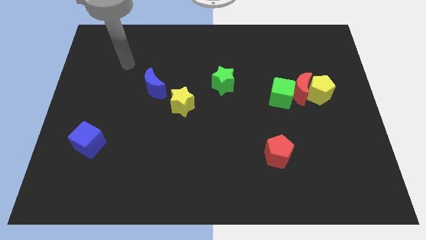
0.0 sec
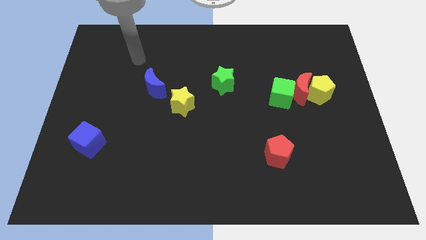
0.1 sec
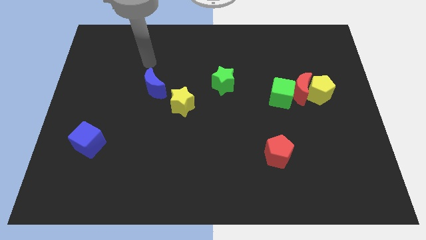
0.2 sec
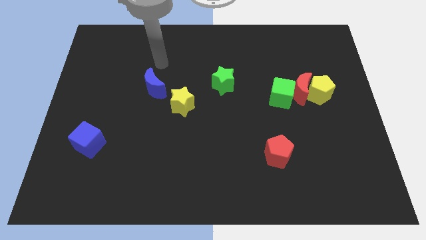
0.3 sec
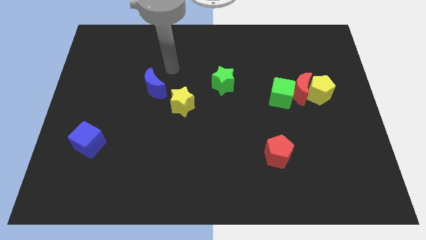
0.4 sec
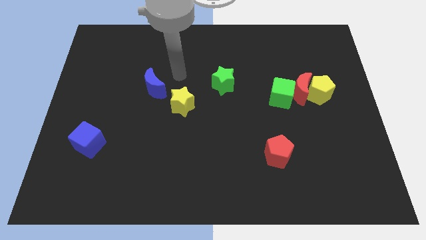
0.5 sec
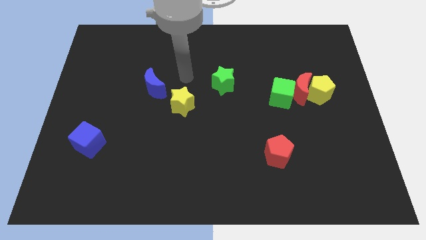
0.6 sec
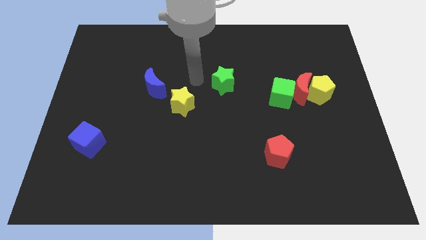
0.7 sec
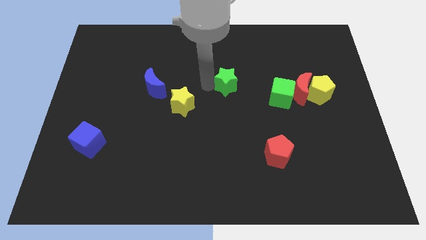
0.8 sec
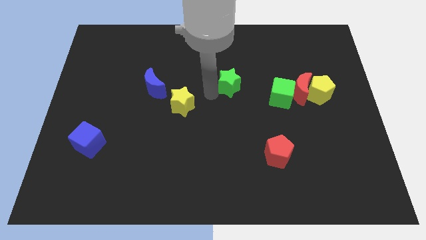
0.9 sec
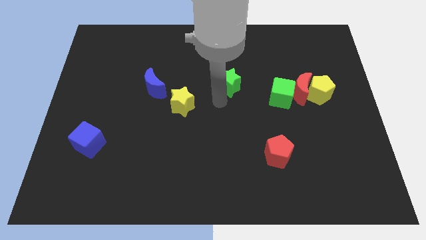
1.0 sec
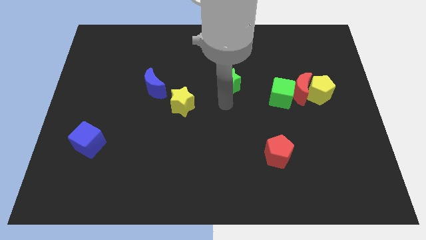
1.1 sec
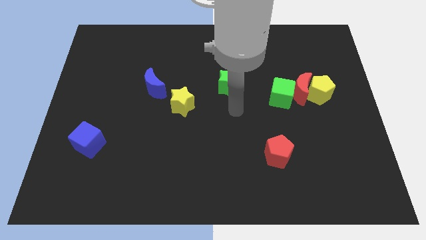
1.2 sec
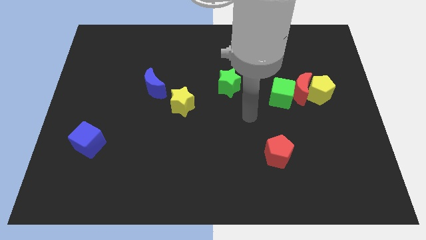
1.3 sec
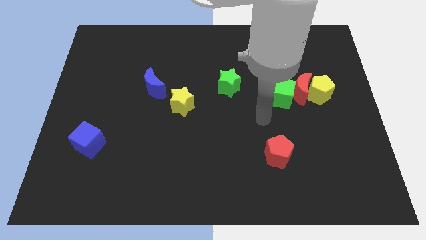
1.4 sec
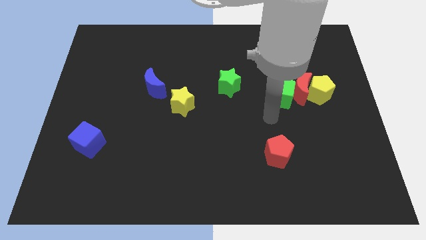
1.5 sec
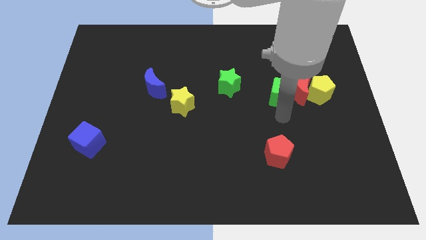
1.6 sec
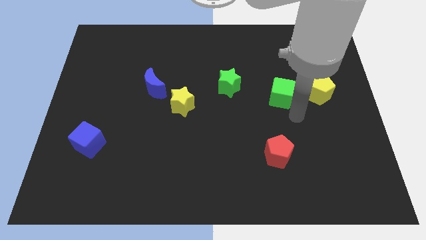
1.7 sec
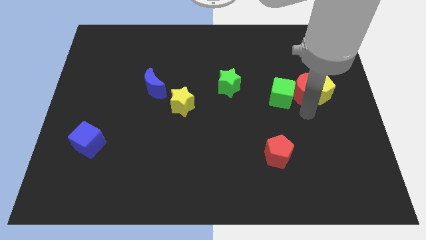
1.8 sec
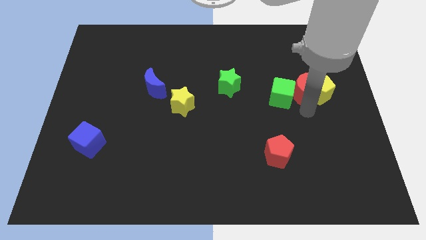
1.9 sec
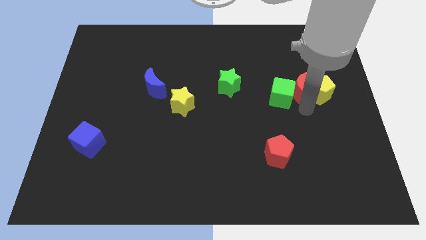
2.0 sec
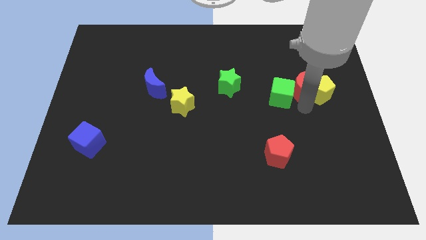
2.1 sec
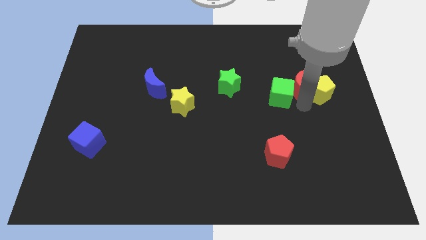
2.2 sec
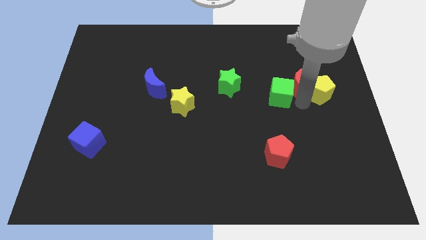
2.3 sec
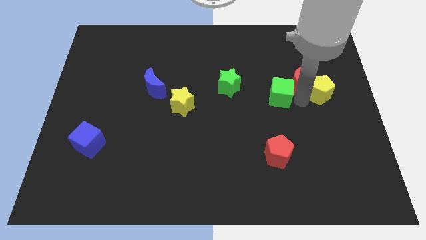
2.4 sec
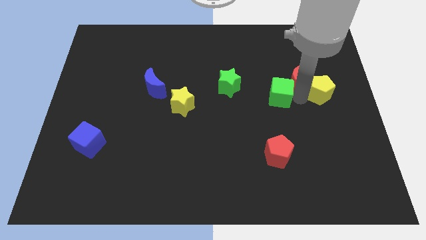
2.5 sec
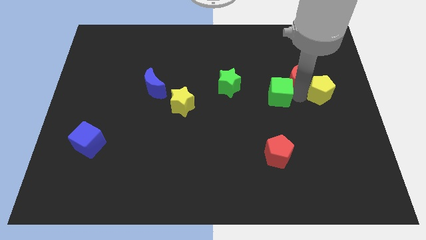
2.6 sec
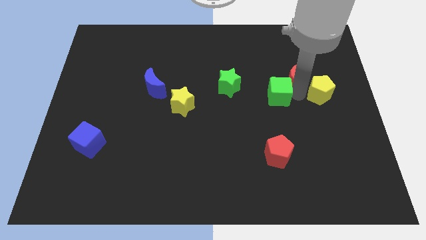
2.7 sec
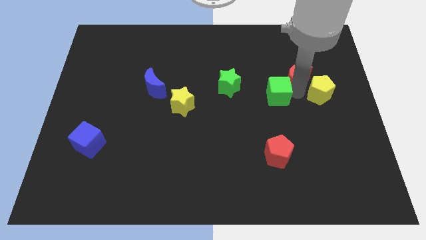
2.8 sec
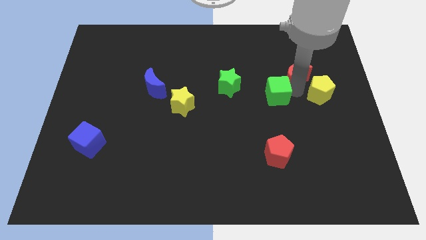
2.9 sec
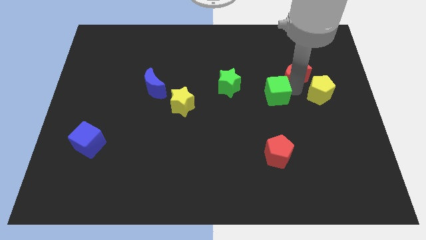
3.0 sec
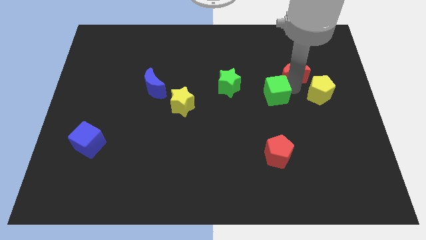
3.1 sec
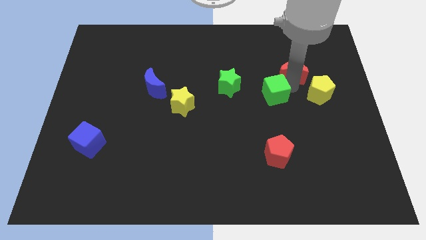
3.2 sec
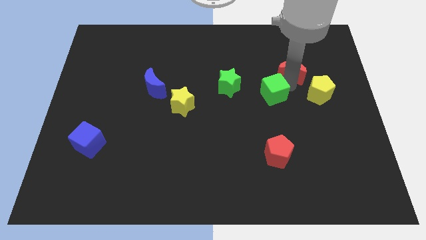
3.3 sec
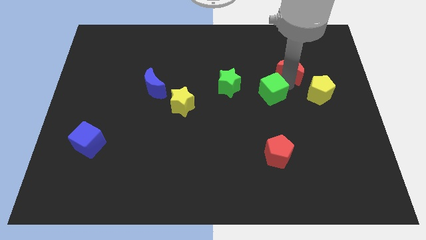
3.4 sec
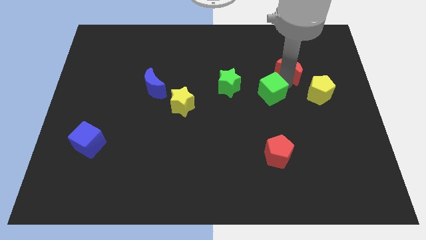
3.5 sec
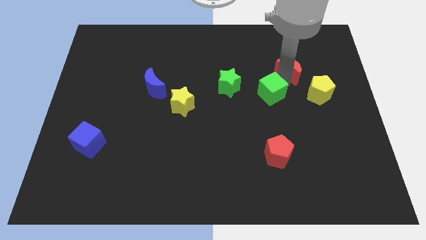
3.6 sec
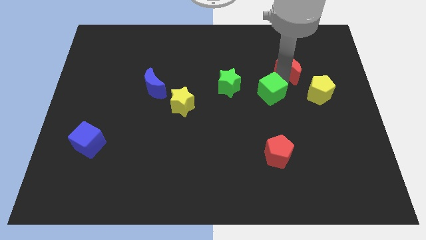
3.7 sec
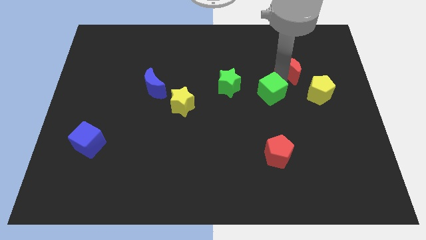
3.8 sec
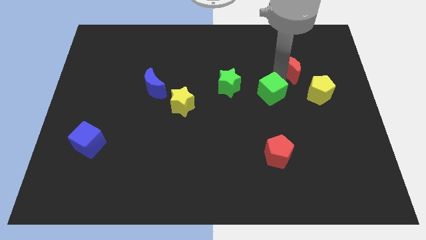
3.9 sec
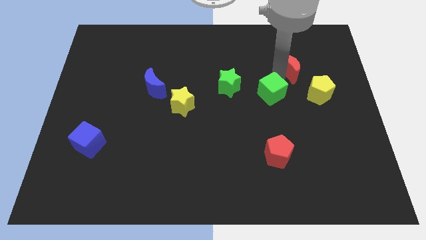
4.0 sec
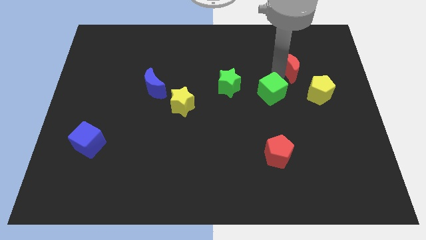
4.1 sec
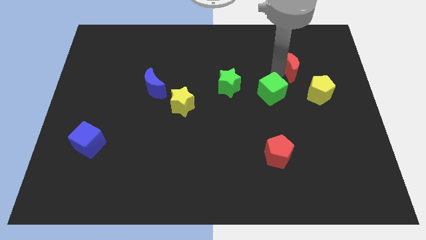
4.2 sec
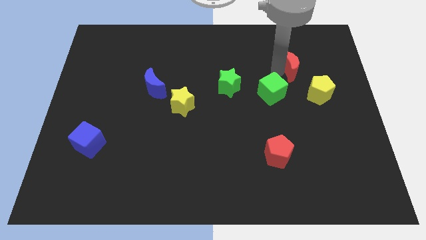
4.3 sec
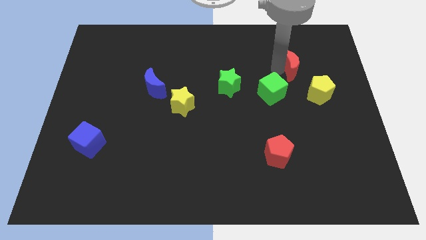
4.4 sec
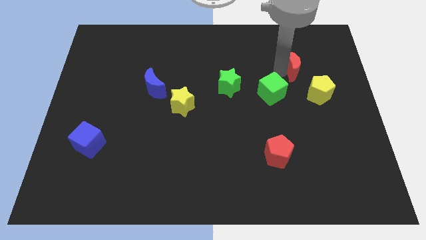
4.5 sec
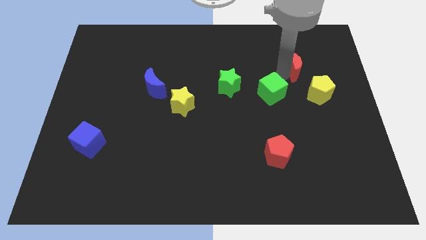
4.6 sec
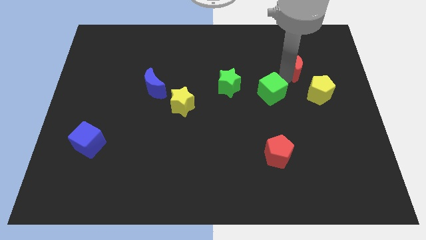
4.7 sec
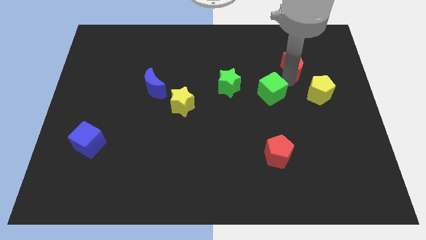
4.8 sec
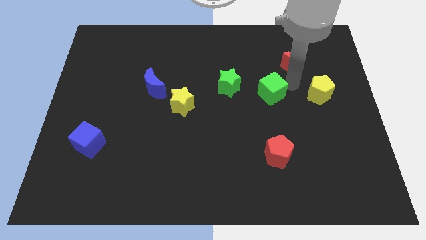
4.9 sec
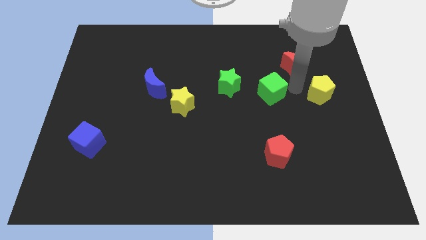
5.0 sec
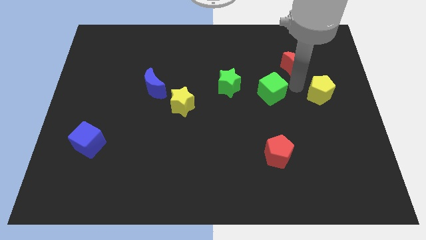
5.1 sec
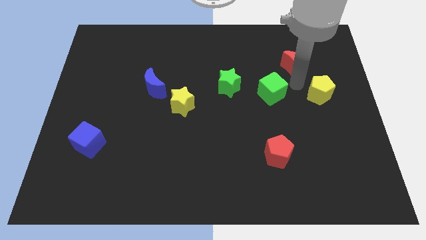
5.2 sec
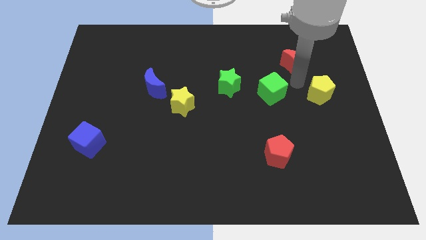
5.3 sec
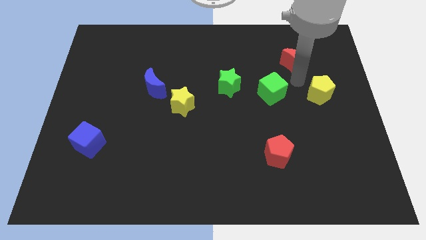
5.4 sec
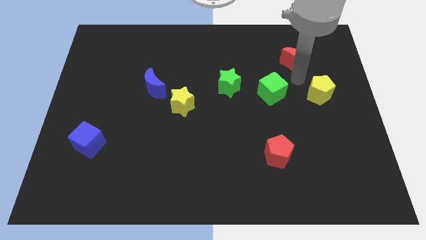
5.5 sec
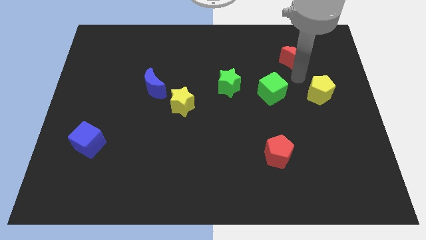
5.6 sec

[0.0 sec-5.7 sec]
pull the red moon apart from the yellow pentagon and green cube

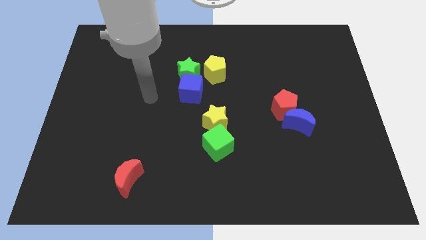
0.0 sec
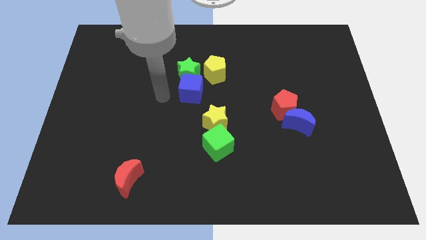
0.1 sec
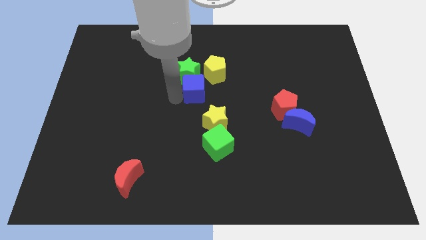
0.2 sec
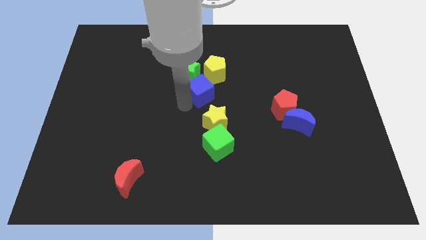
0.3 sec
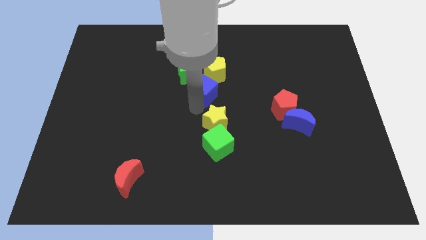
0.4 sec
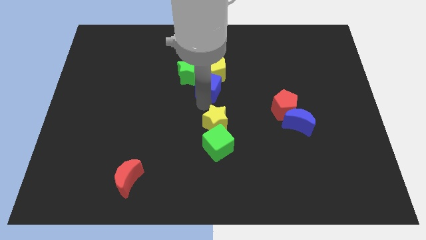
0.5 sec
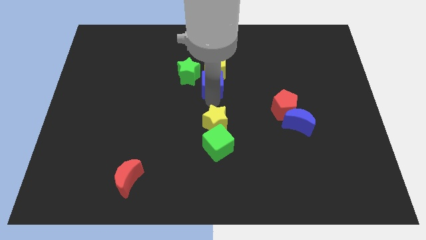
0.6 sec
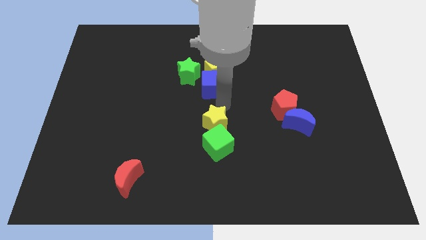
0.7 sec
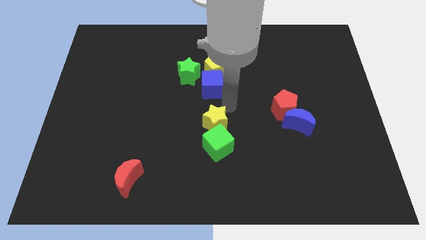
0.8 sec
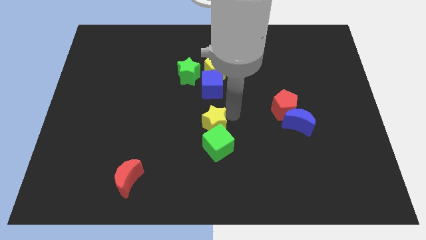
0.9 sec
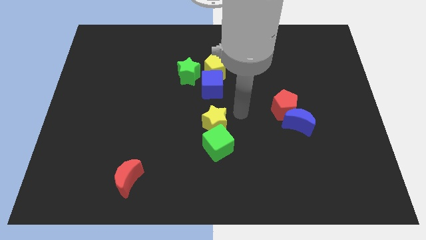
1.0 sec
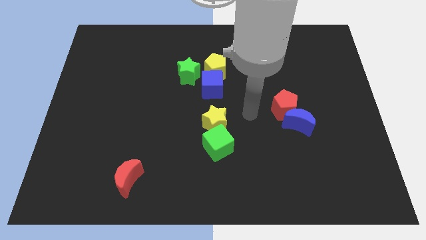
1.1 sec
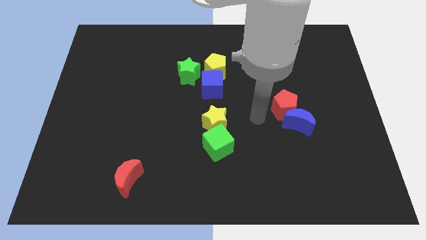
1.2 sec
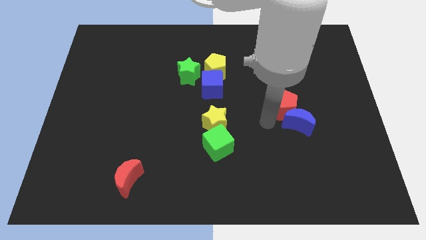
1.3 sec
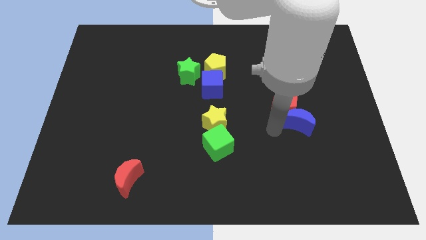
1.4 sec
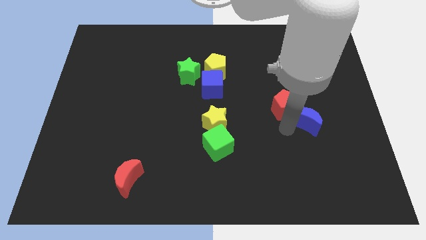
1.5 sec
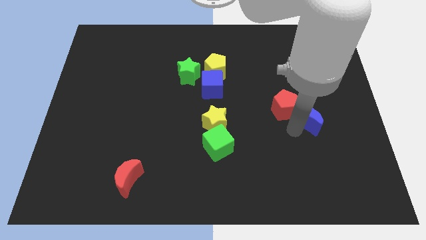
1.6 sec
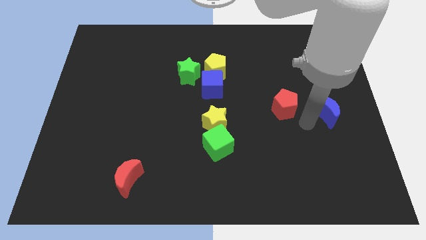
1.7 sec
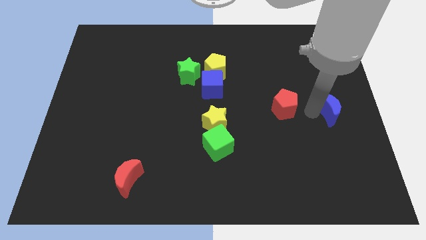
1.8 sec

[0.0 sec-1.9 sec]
move the red pentagon away from the blue moon

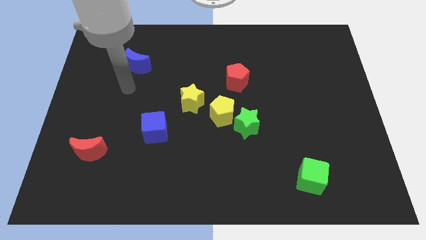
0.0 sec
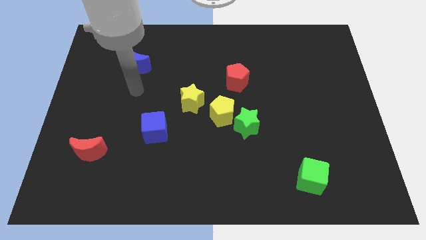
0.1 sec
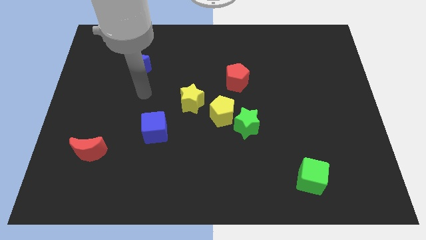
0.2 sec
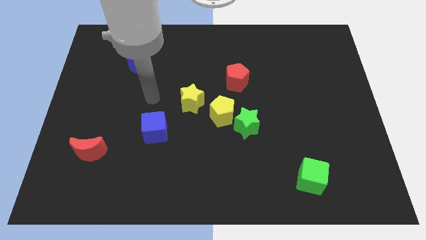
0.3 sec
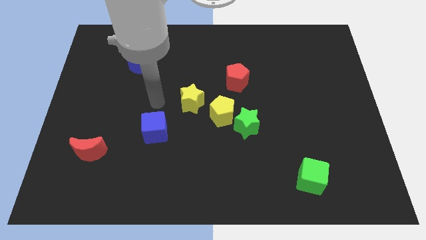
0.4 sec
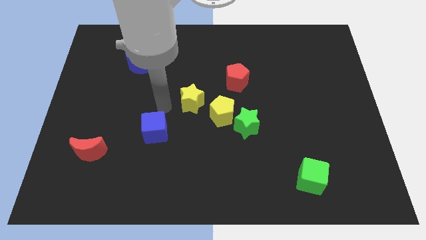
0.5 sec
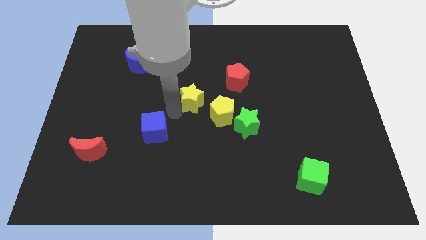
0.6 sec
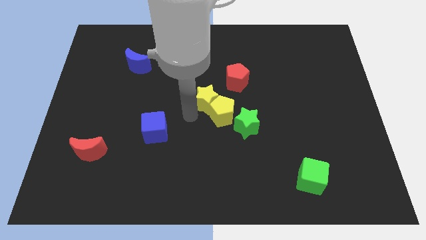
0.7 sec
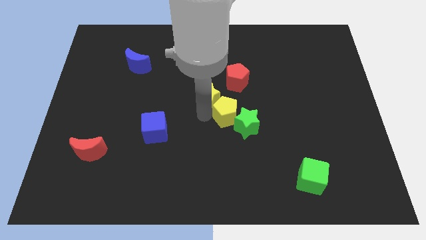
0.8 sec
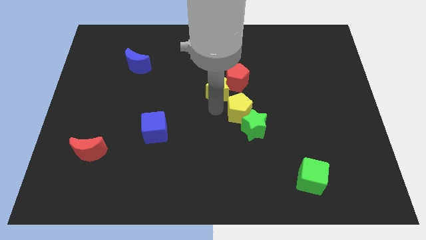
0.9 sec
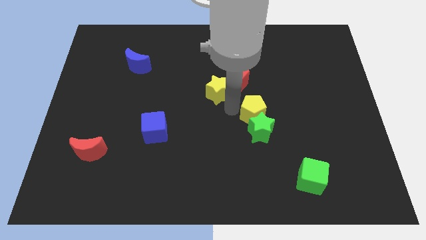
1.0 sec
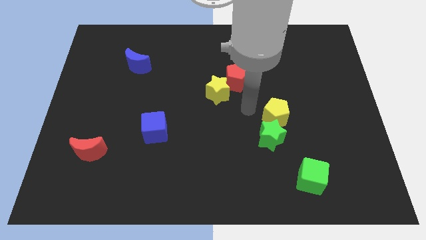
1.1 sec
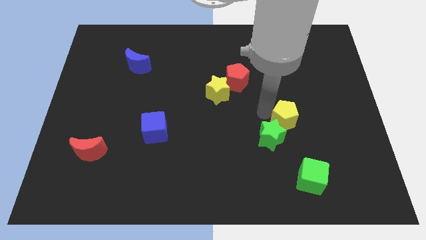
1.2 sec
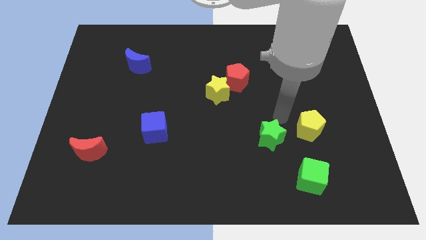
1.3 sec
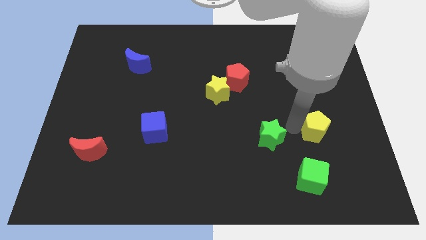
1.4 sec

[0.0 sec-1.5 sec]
separate the green star from the yellow pentagon

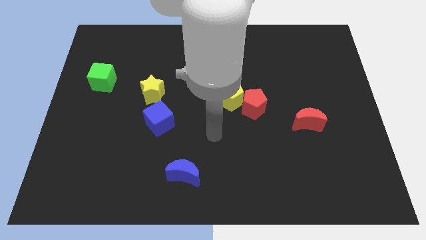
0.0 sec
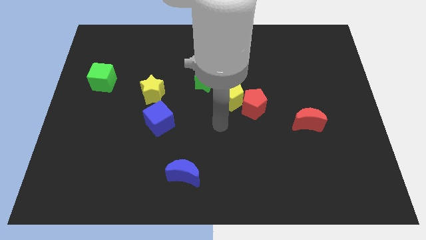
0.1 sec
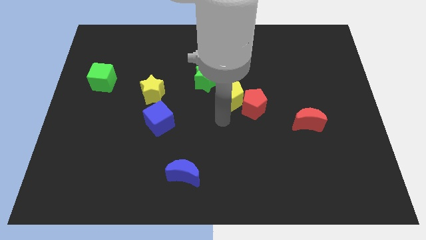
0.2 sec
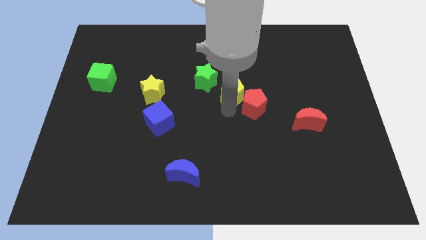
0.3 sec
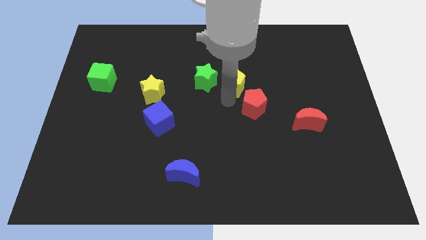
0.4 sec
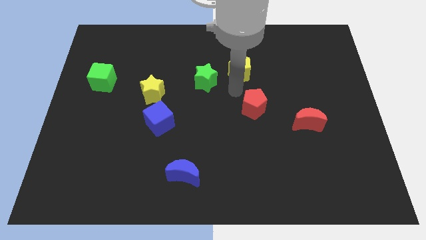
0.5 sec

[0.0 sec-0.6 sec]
move the red pentagon away from the yellow pentagon
